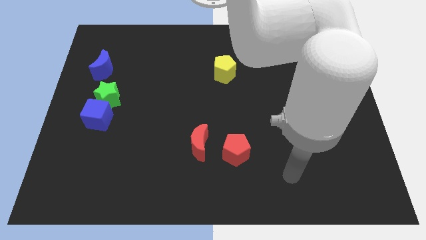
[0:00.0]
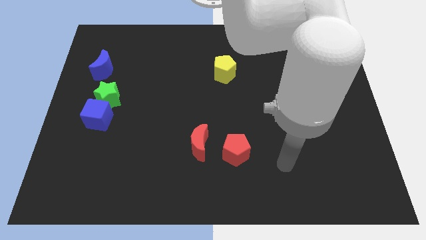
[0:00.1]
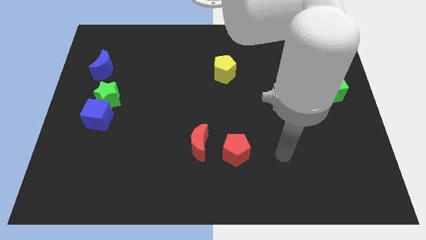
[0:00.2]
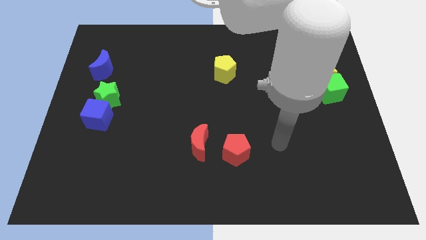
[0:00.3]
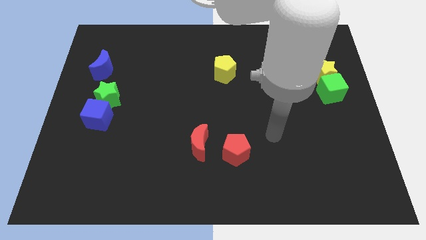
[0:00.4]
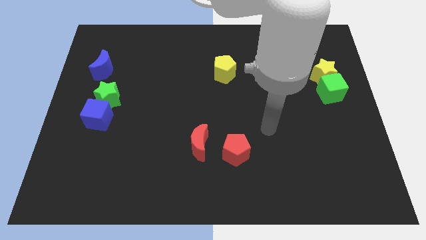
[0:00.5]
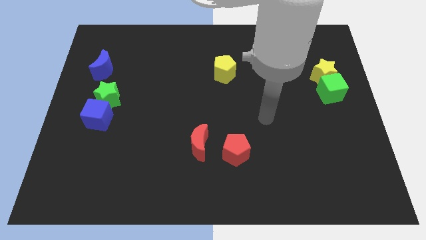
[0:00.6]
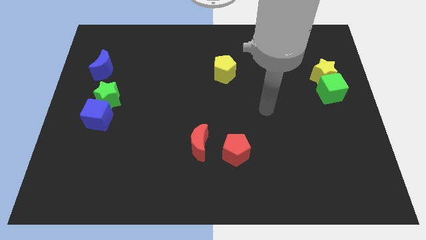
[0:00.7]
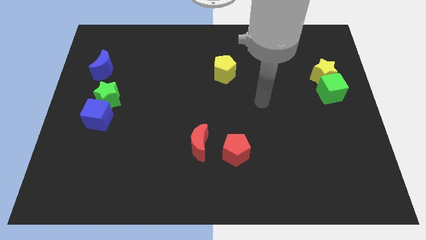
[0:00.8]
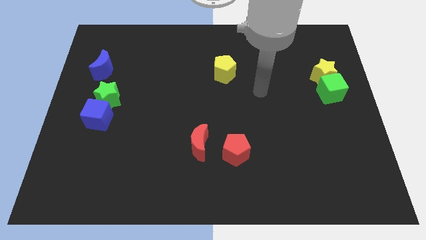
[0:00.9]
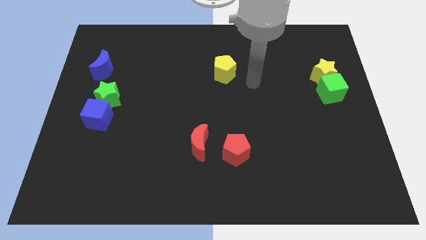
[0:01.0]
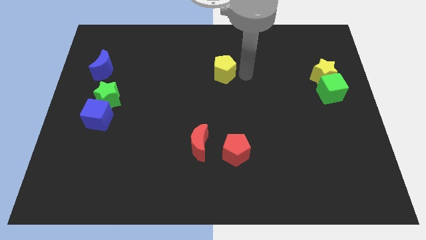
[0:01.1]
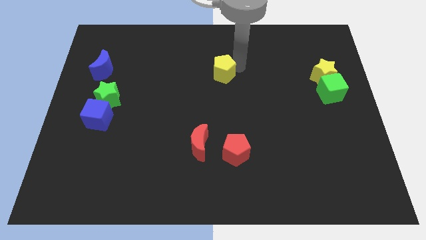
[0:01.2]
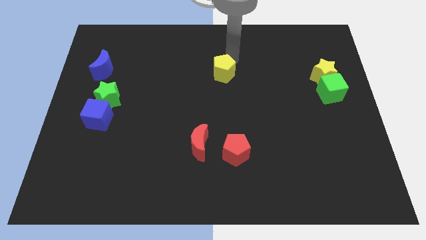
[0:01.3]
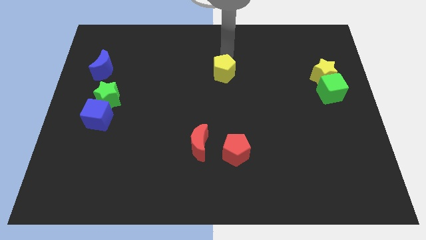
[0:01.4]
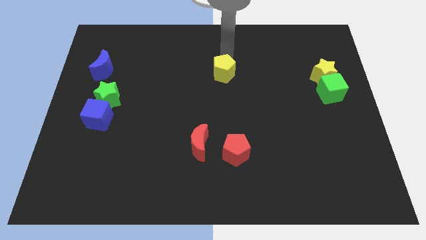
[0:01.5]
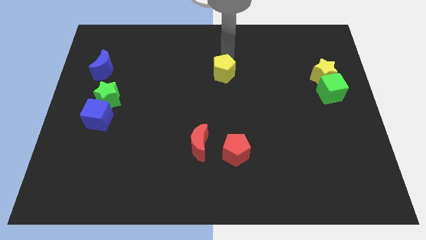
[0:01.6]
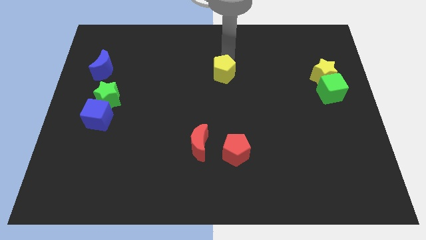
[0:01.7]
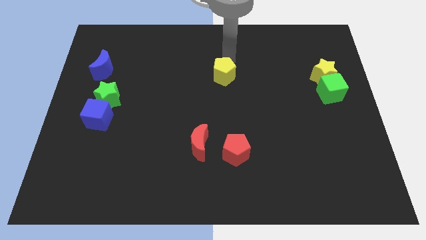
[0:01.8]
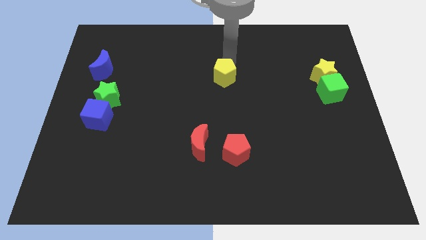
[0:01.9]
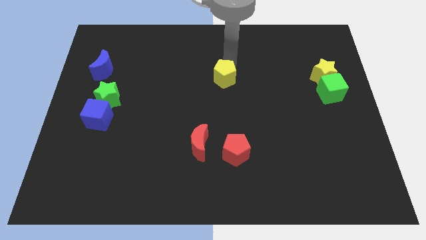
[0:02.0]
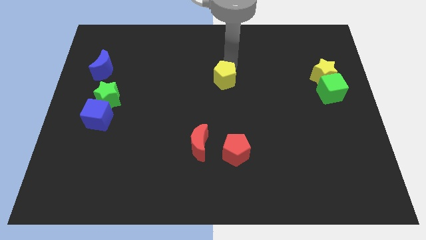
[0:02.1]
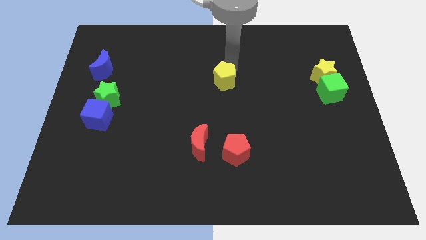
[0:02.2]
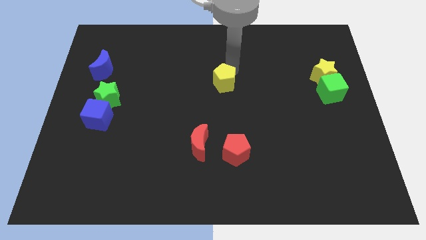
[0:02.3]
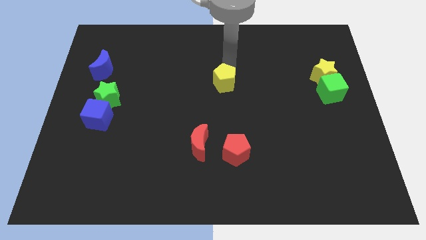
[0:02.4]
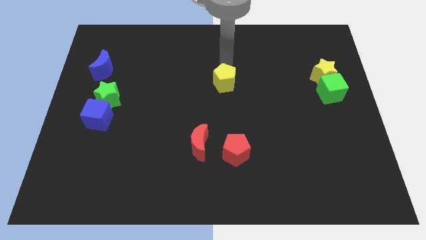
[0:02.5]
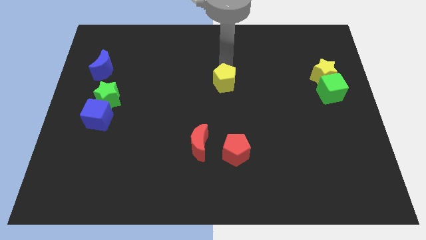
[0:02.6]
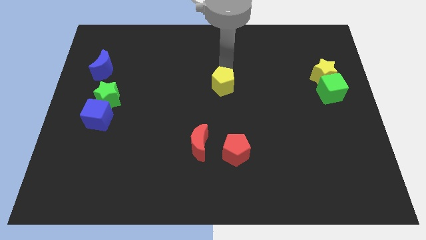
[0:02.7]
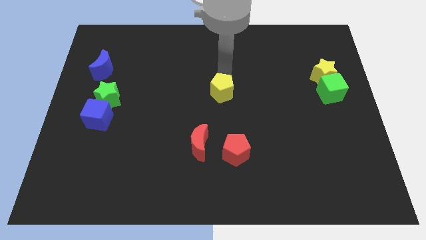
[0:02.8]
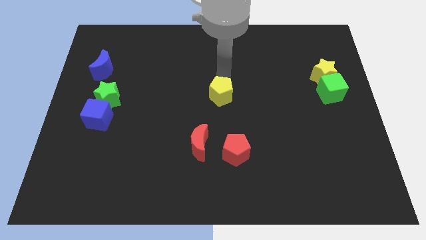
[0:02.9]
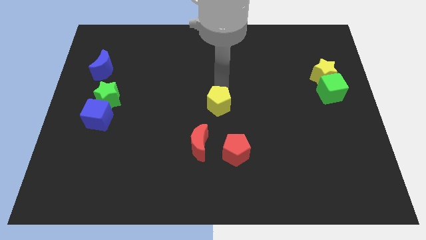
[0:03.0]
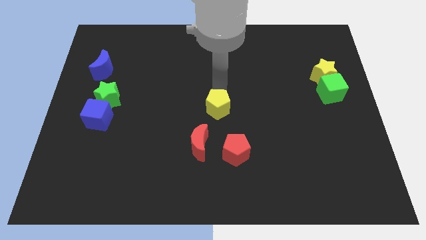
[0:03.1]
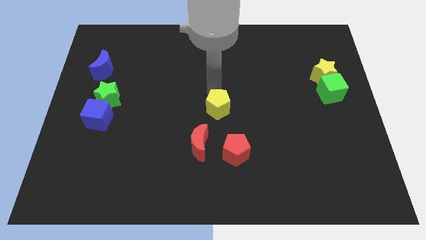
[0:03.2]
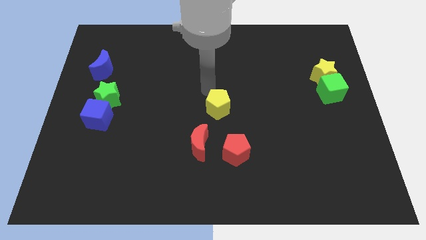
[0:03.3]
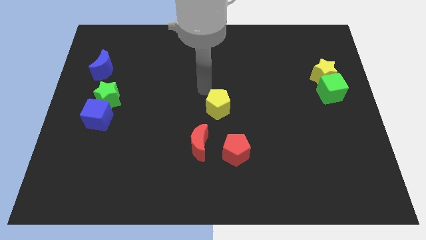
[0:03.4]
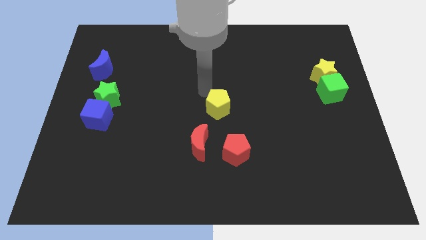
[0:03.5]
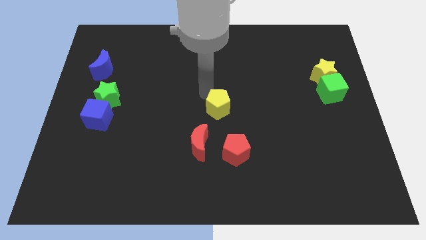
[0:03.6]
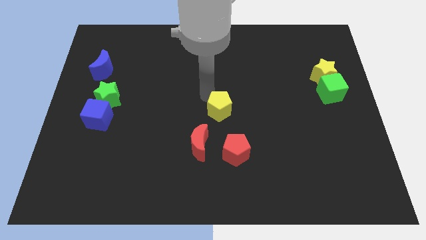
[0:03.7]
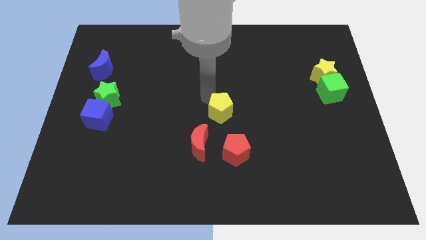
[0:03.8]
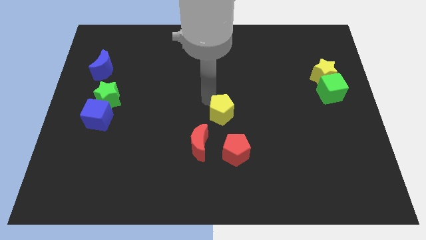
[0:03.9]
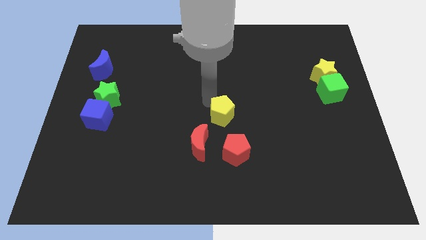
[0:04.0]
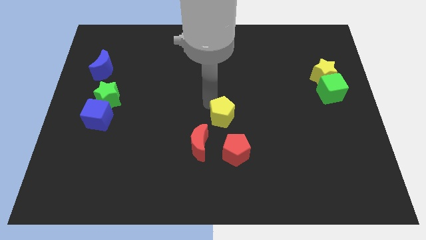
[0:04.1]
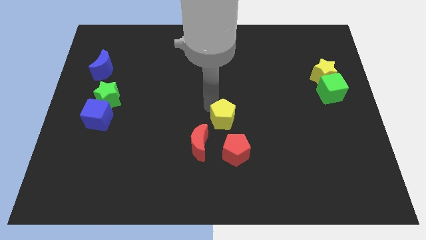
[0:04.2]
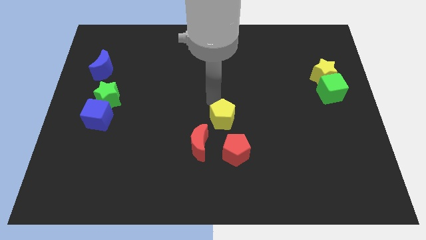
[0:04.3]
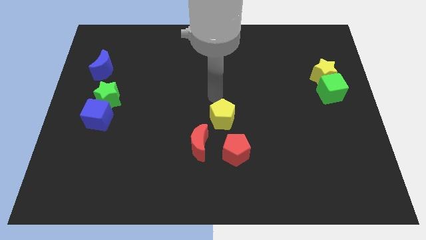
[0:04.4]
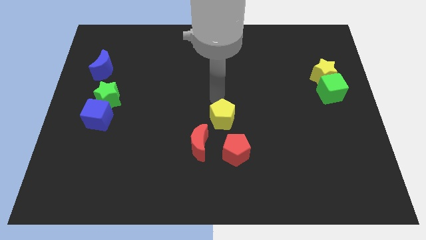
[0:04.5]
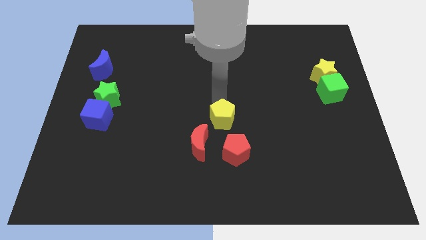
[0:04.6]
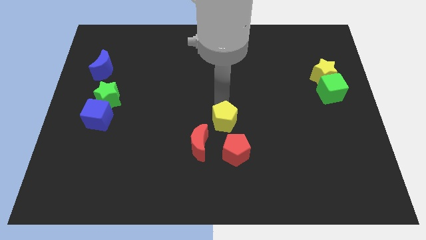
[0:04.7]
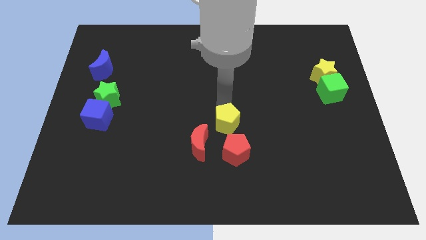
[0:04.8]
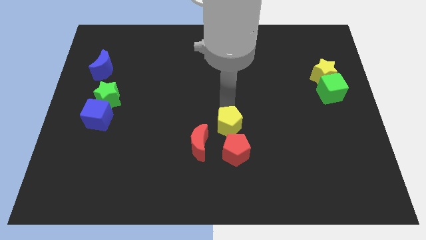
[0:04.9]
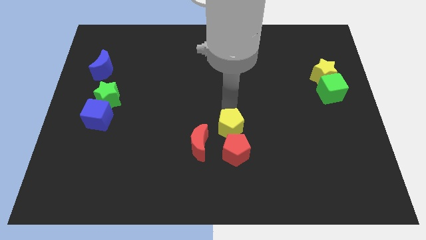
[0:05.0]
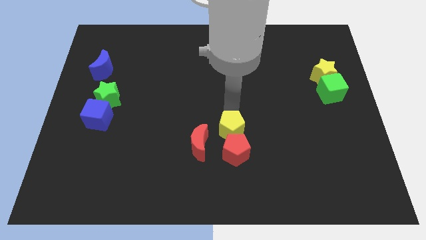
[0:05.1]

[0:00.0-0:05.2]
slide the yellow pentagon next to the red pentagon

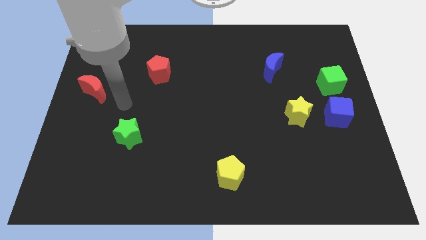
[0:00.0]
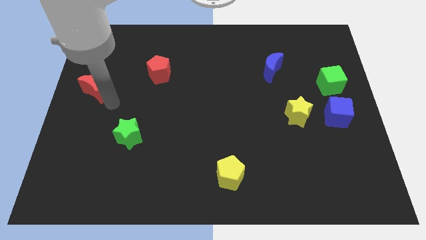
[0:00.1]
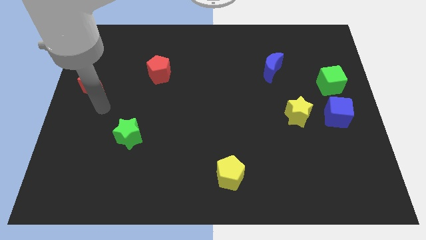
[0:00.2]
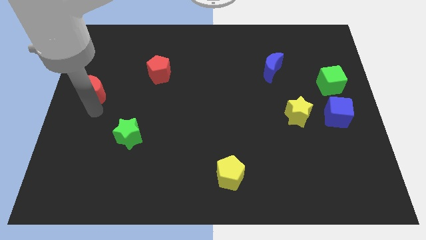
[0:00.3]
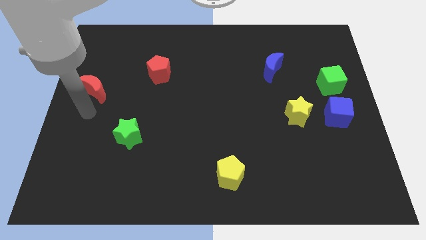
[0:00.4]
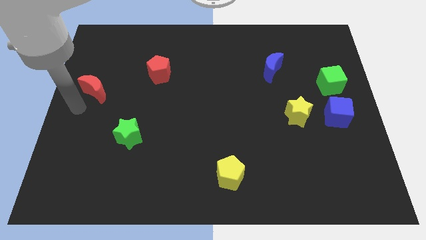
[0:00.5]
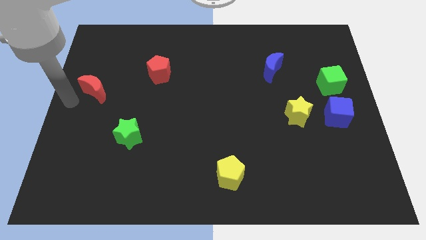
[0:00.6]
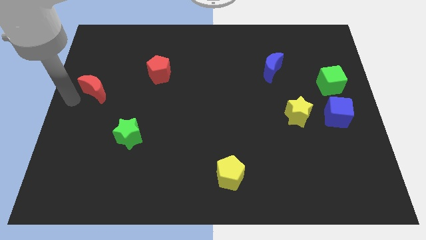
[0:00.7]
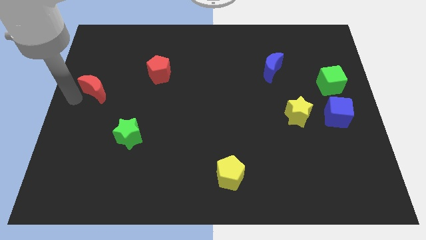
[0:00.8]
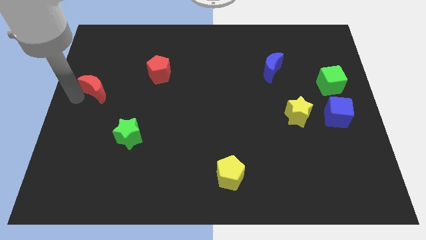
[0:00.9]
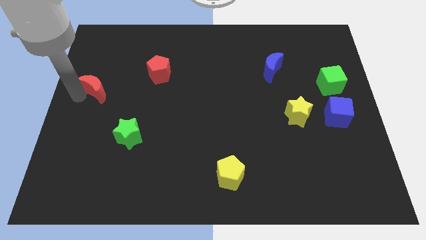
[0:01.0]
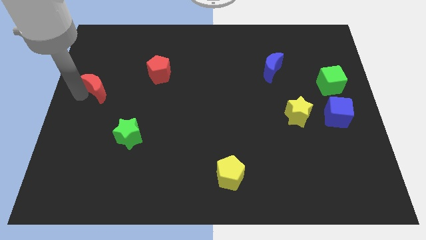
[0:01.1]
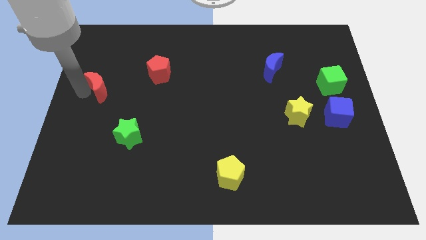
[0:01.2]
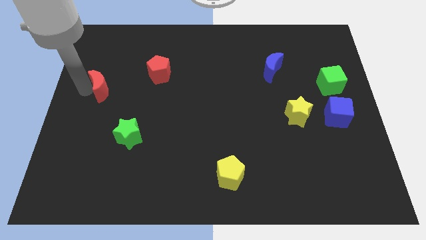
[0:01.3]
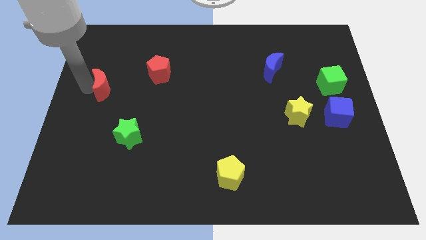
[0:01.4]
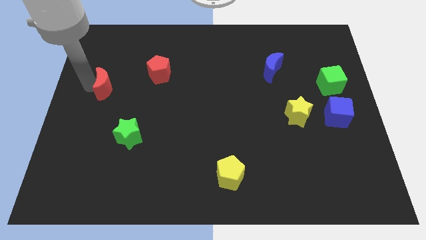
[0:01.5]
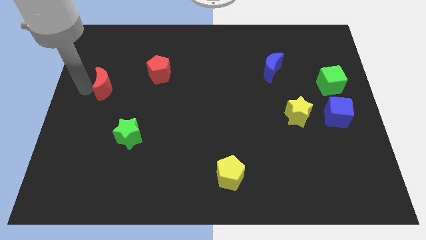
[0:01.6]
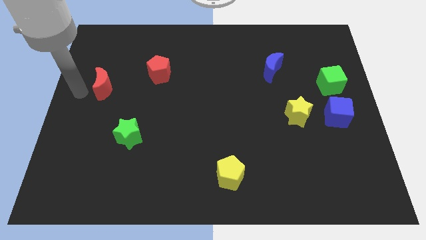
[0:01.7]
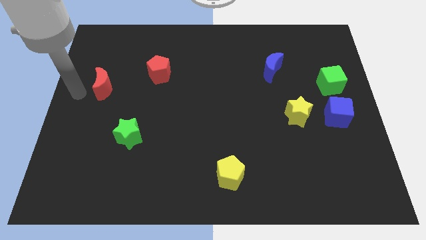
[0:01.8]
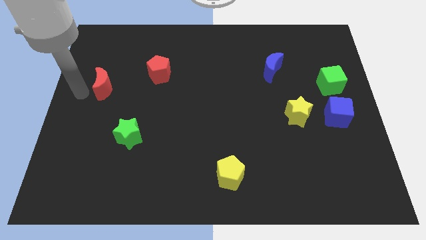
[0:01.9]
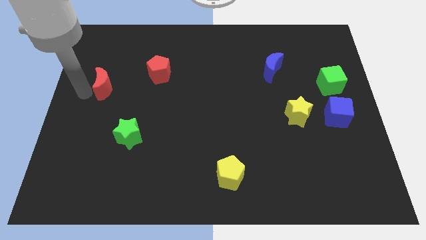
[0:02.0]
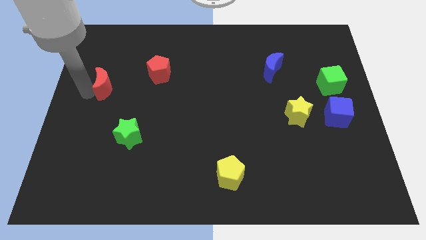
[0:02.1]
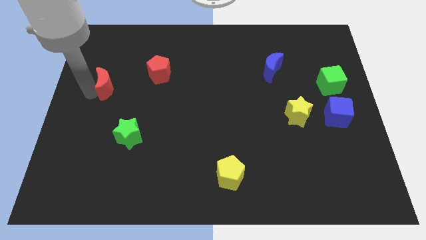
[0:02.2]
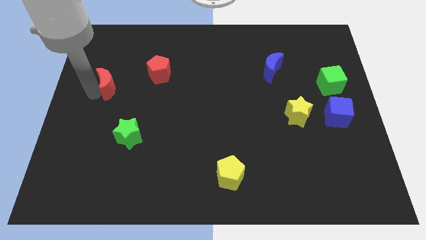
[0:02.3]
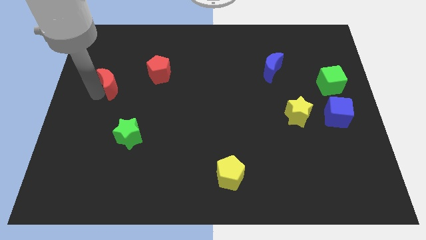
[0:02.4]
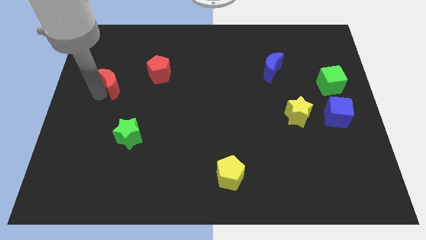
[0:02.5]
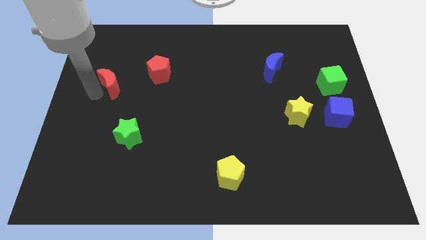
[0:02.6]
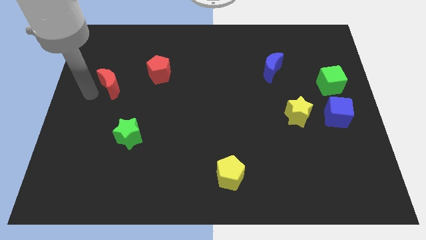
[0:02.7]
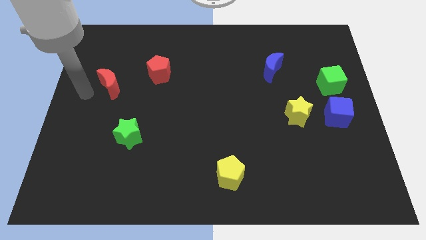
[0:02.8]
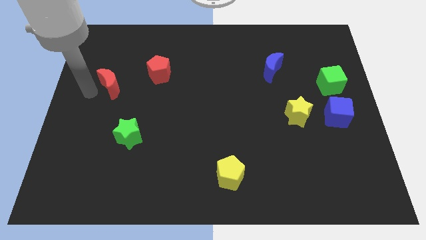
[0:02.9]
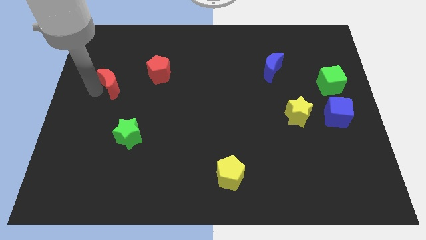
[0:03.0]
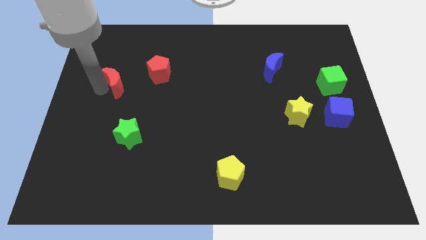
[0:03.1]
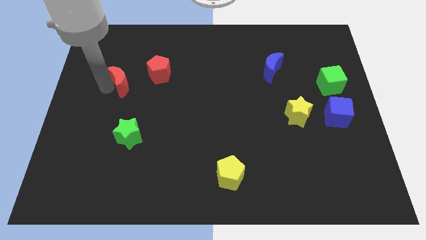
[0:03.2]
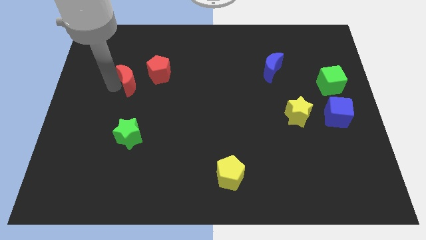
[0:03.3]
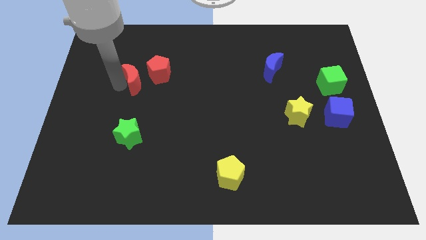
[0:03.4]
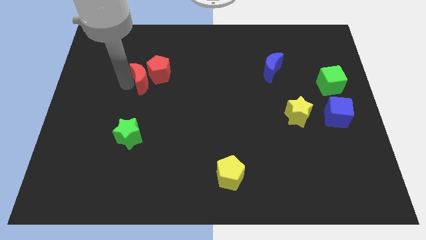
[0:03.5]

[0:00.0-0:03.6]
push the red moon to the red pentagon
